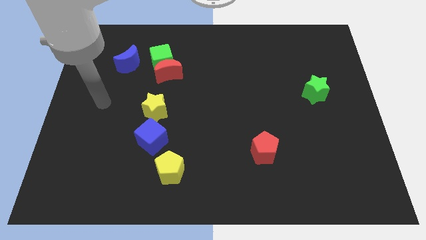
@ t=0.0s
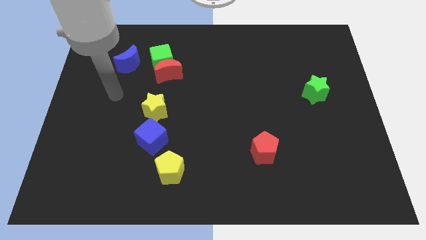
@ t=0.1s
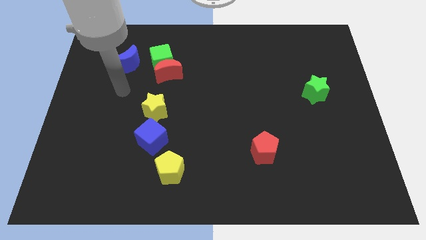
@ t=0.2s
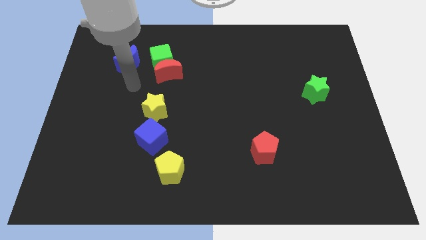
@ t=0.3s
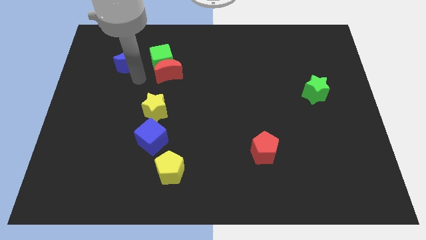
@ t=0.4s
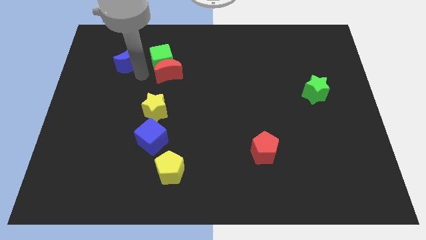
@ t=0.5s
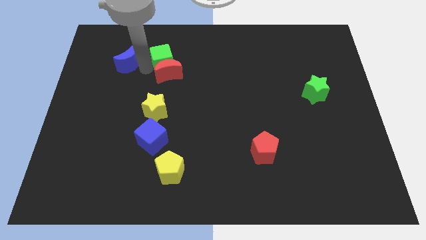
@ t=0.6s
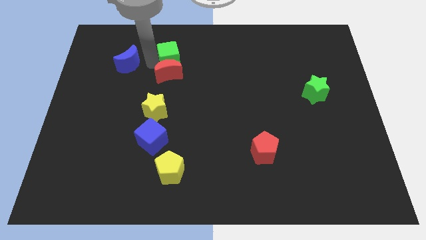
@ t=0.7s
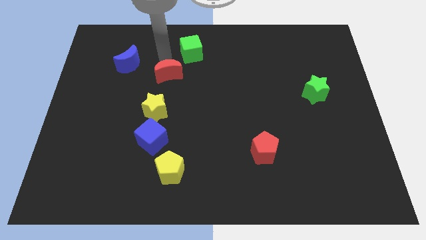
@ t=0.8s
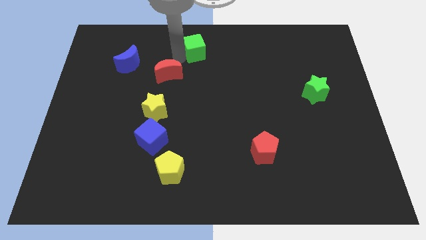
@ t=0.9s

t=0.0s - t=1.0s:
pull the red moon apart from the green cube

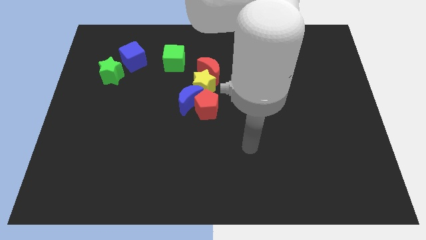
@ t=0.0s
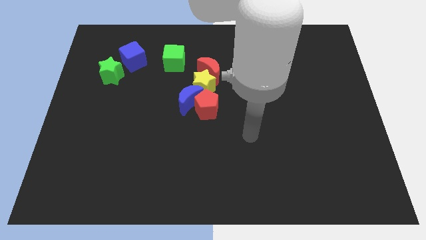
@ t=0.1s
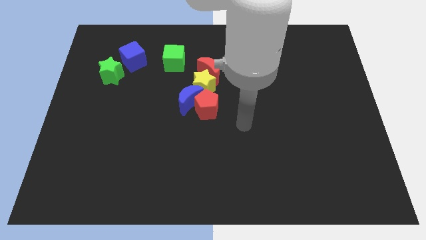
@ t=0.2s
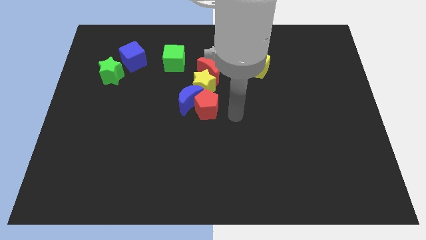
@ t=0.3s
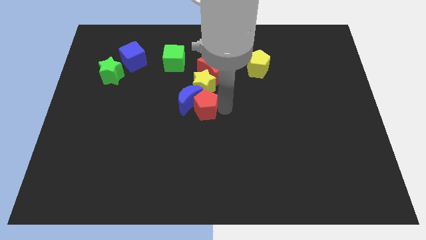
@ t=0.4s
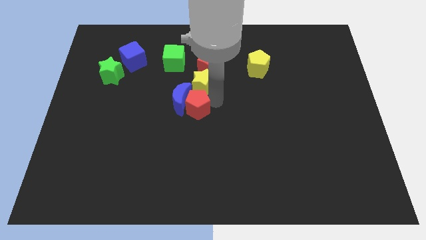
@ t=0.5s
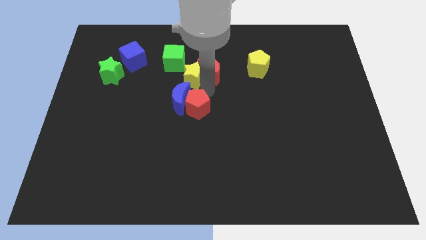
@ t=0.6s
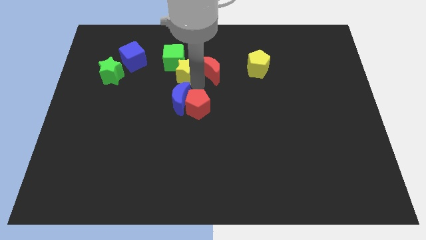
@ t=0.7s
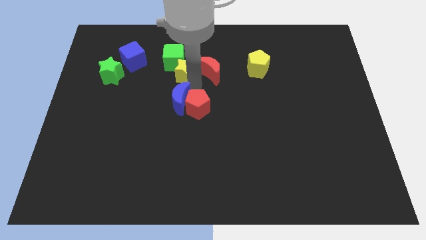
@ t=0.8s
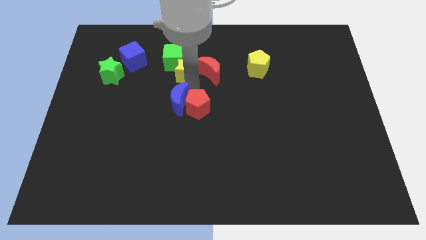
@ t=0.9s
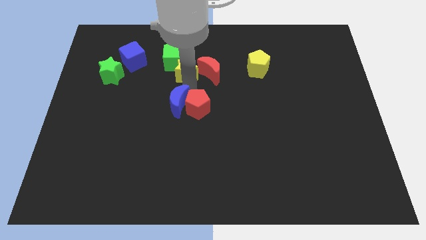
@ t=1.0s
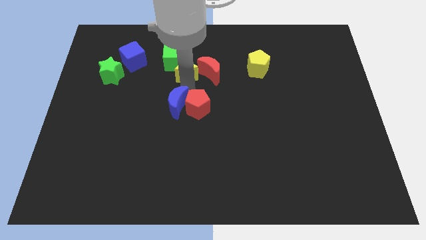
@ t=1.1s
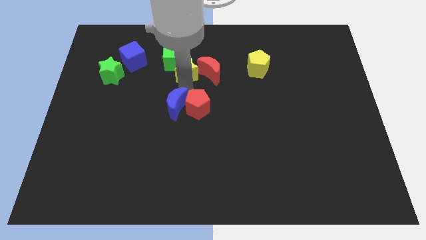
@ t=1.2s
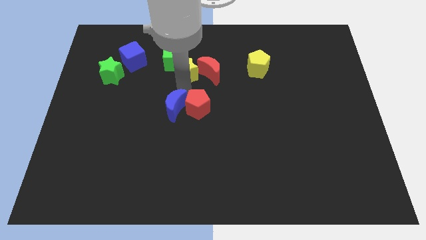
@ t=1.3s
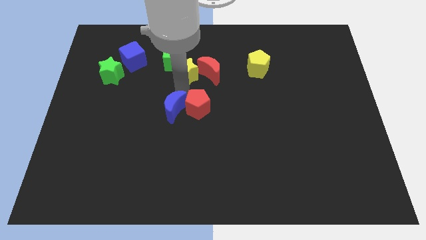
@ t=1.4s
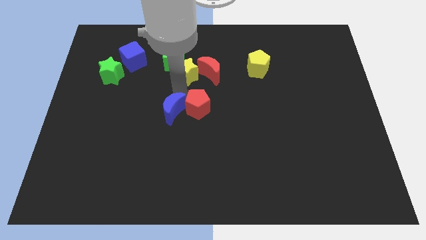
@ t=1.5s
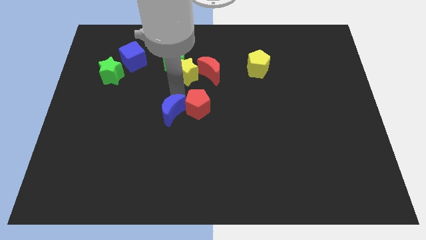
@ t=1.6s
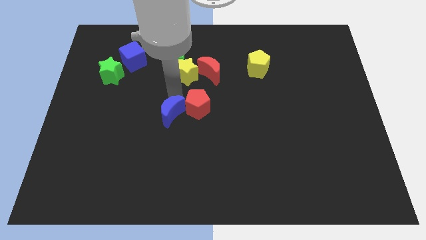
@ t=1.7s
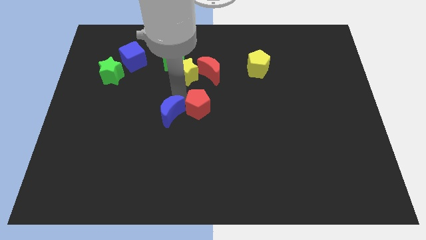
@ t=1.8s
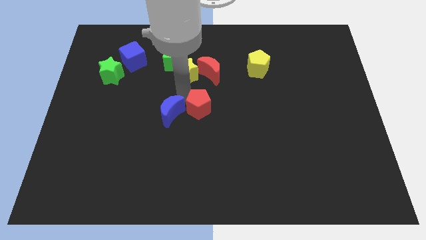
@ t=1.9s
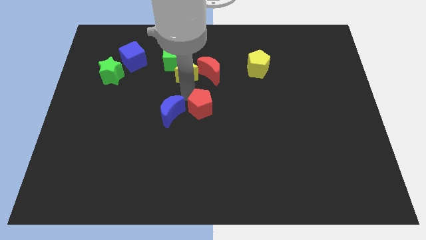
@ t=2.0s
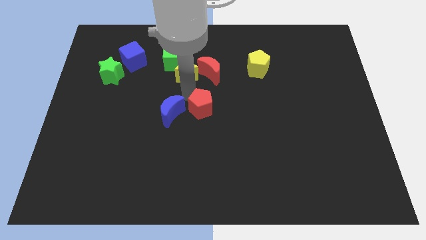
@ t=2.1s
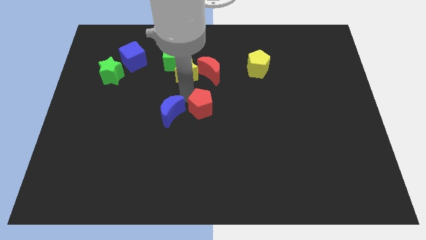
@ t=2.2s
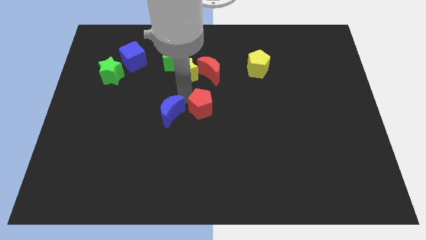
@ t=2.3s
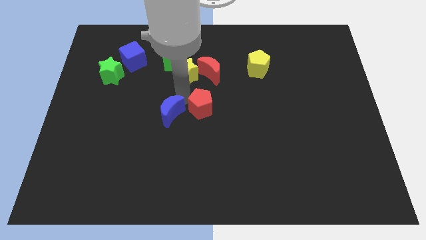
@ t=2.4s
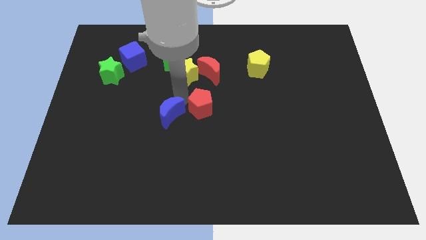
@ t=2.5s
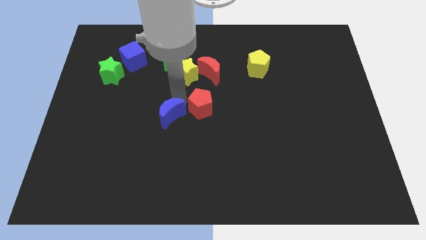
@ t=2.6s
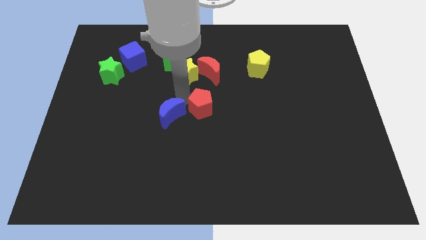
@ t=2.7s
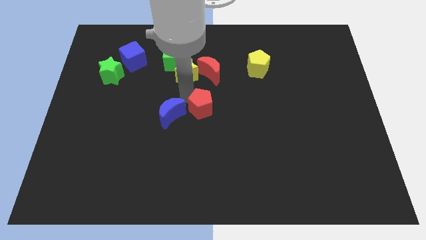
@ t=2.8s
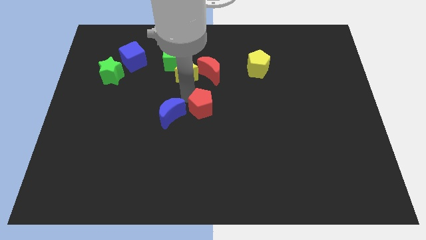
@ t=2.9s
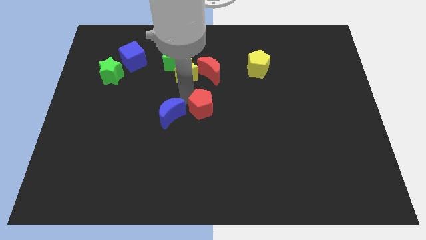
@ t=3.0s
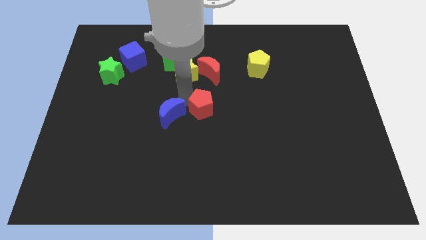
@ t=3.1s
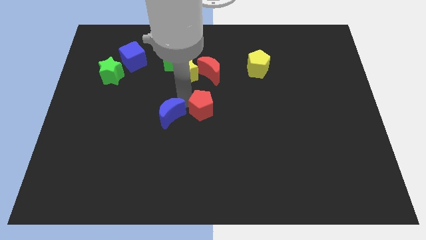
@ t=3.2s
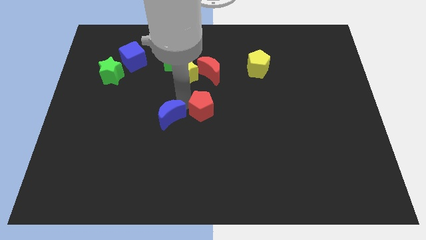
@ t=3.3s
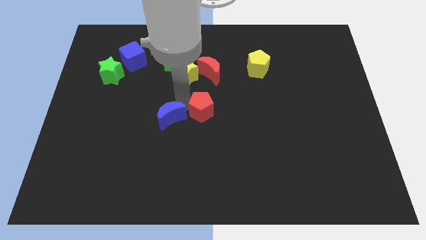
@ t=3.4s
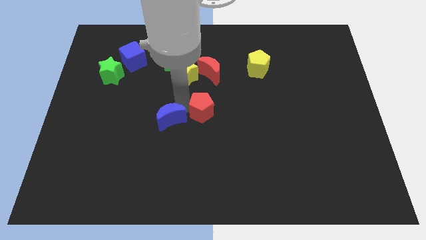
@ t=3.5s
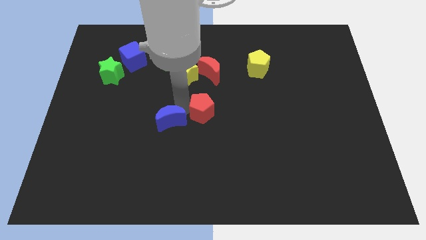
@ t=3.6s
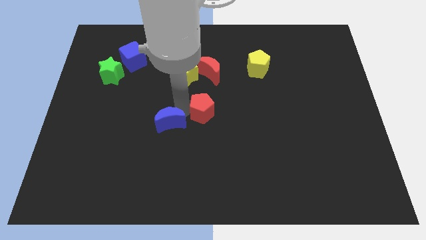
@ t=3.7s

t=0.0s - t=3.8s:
move the blue moon away from the red pentagon and yellow star

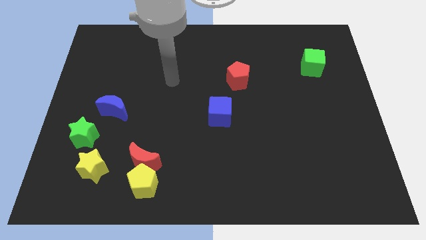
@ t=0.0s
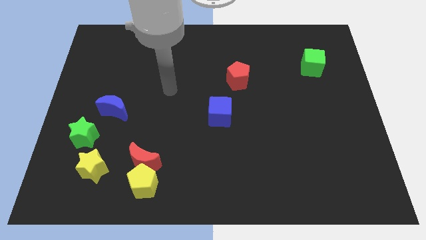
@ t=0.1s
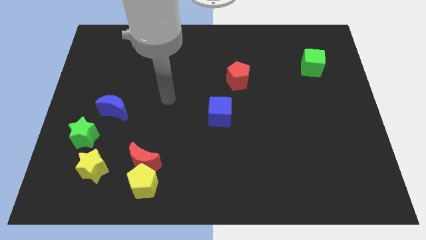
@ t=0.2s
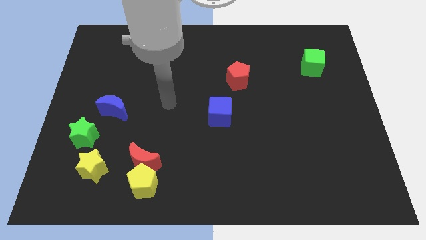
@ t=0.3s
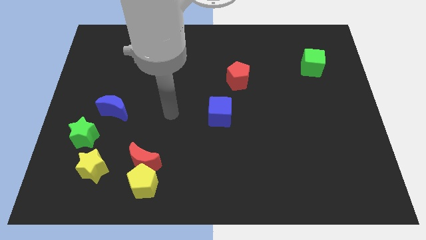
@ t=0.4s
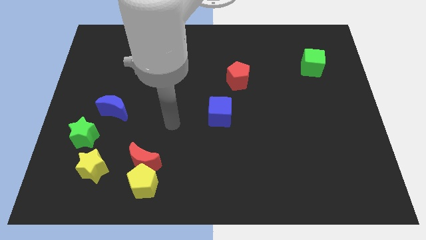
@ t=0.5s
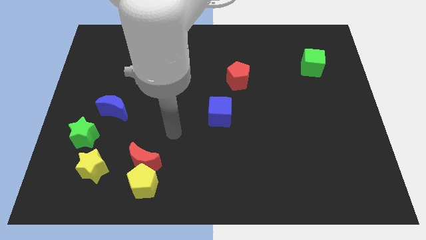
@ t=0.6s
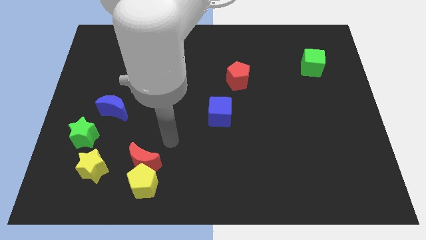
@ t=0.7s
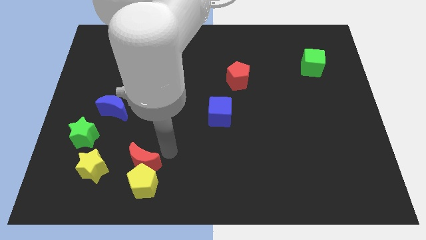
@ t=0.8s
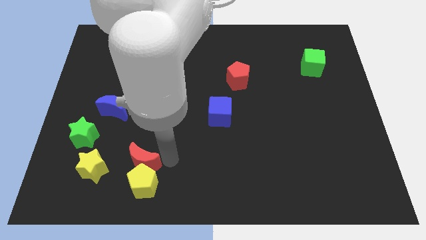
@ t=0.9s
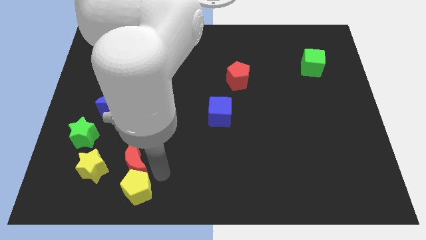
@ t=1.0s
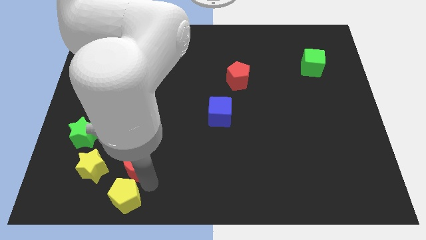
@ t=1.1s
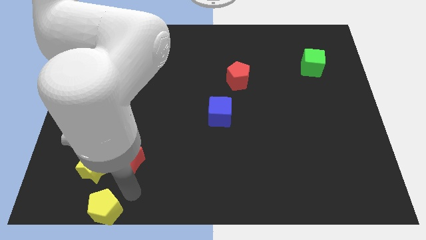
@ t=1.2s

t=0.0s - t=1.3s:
pull the red moon apart from the yellow pentagon

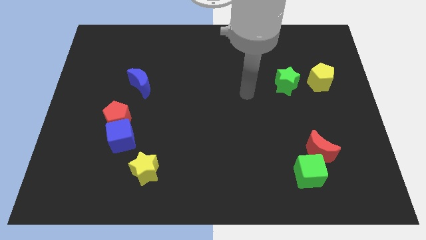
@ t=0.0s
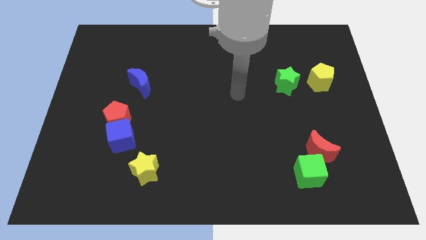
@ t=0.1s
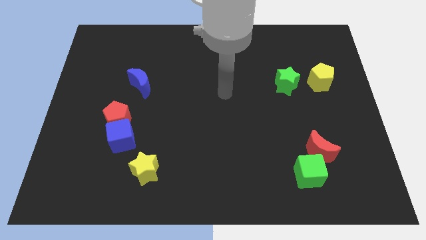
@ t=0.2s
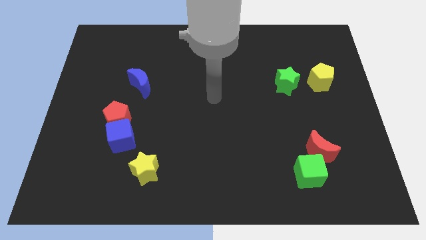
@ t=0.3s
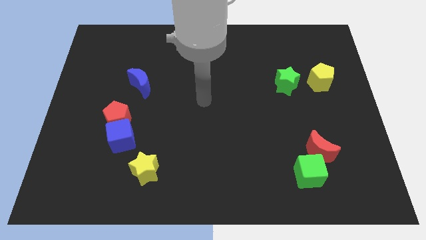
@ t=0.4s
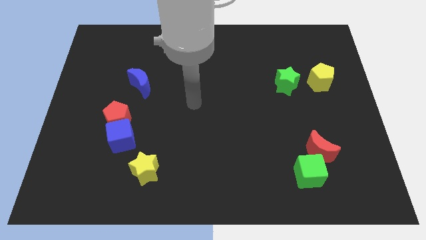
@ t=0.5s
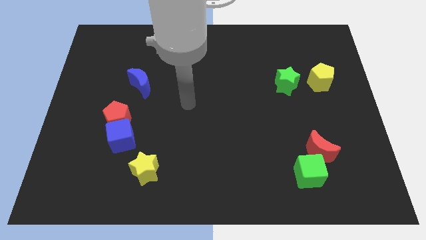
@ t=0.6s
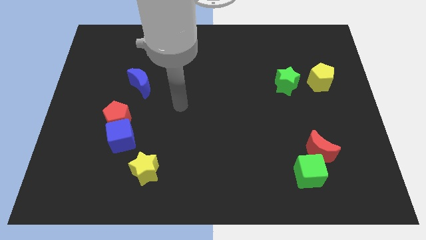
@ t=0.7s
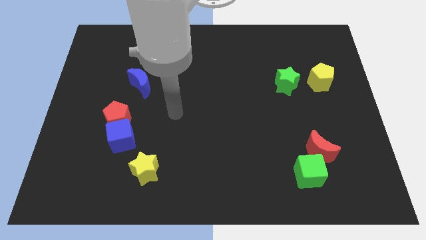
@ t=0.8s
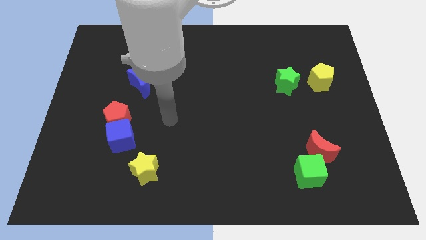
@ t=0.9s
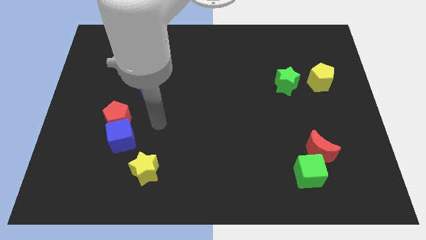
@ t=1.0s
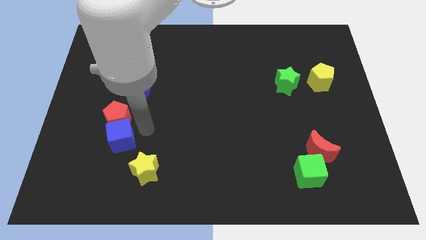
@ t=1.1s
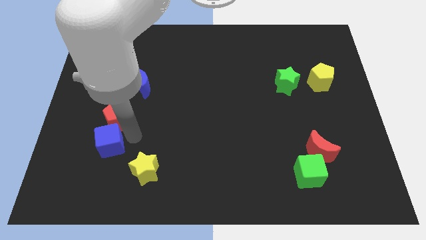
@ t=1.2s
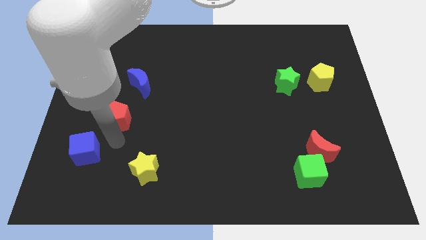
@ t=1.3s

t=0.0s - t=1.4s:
separate the red pentagon from the blue cube

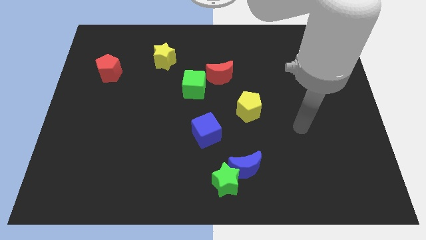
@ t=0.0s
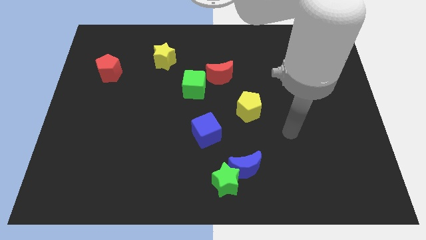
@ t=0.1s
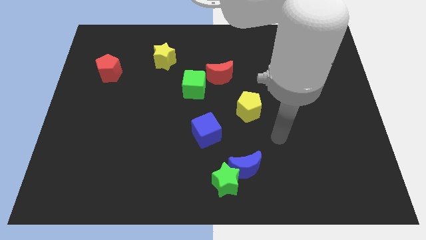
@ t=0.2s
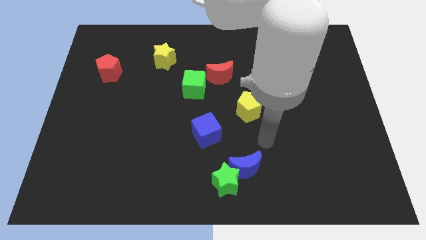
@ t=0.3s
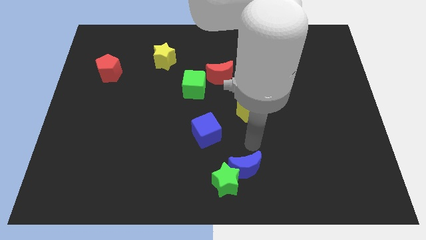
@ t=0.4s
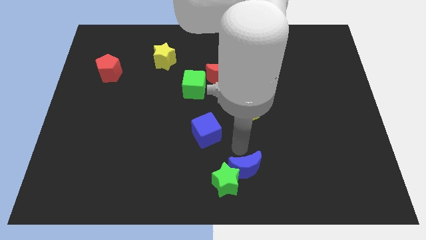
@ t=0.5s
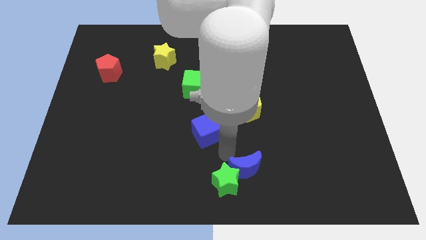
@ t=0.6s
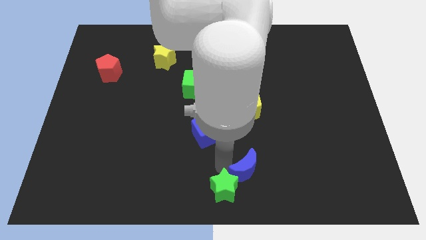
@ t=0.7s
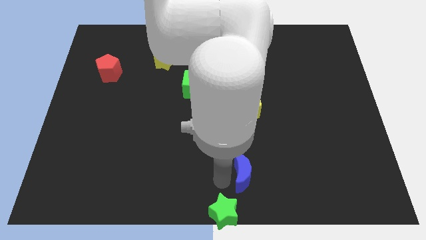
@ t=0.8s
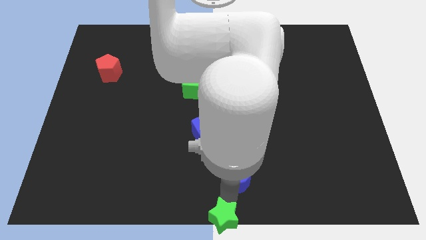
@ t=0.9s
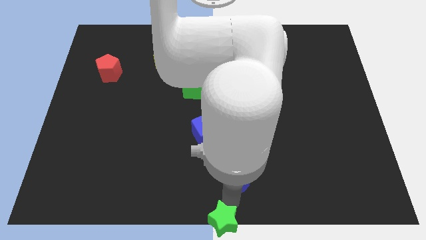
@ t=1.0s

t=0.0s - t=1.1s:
separate the blue moon from the green star

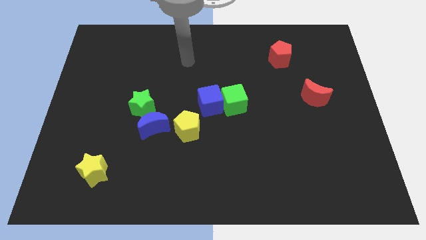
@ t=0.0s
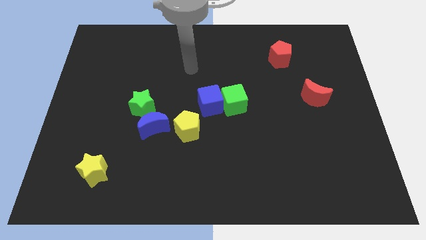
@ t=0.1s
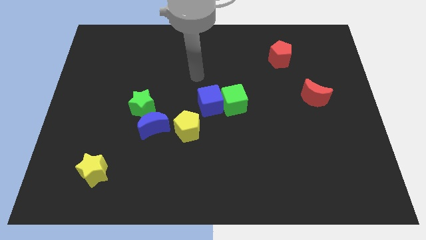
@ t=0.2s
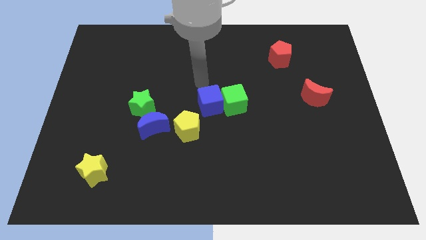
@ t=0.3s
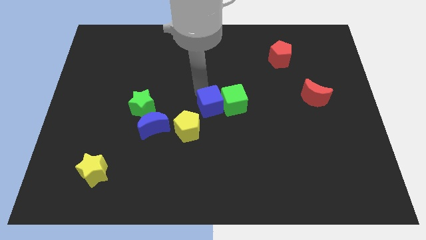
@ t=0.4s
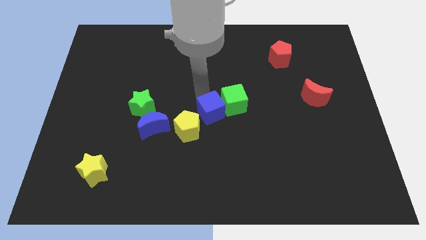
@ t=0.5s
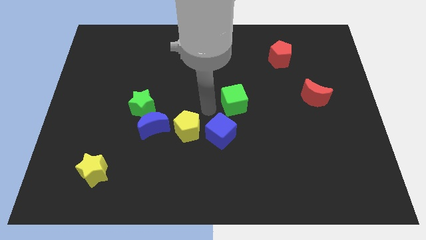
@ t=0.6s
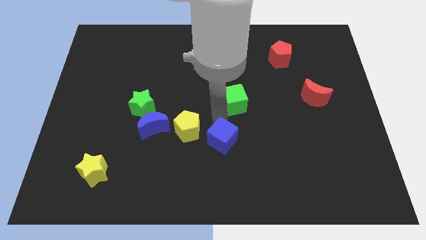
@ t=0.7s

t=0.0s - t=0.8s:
separate the green cube from the blue cube
